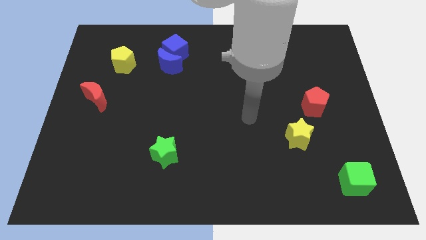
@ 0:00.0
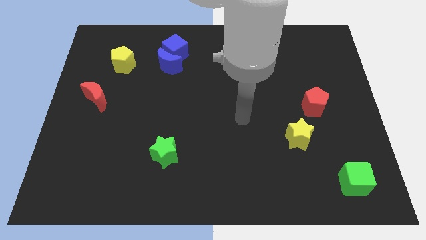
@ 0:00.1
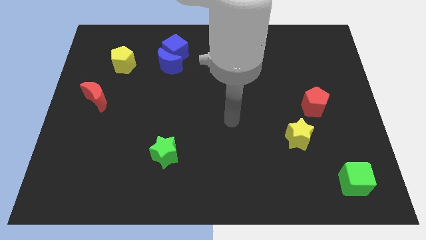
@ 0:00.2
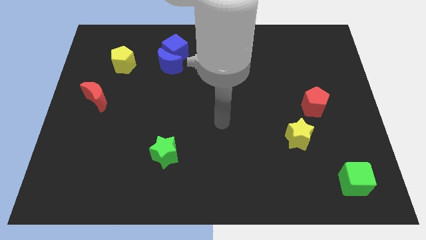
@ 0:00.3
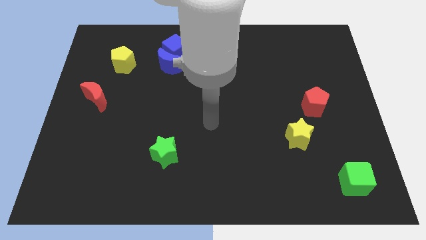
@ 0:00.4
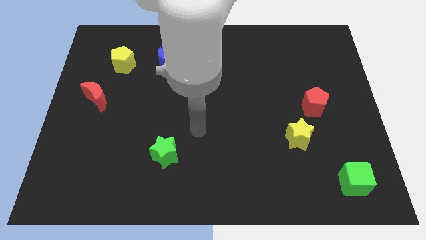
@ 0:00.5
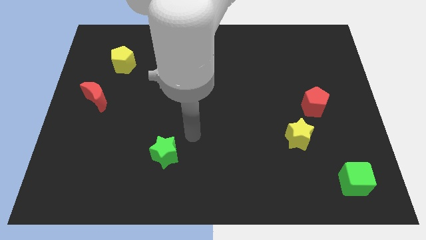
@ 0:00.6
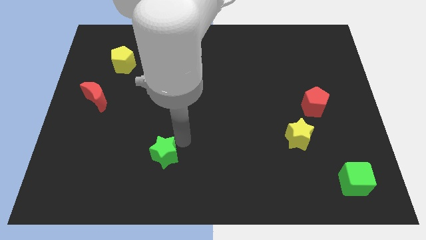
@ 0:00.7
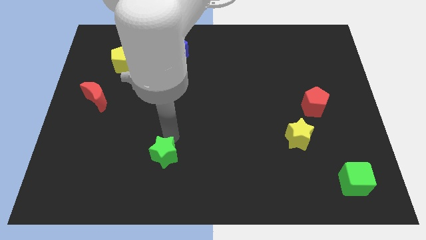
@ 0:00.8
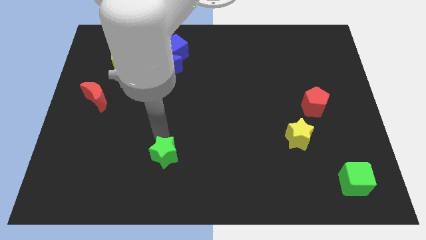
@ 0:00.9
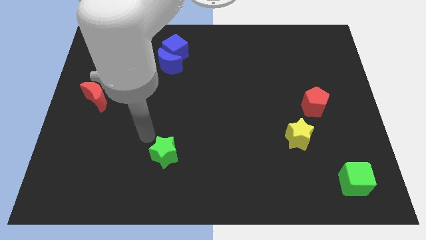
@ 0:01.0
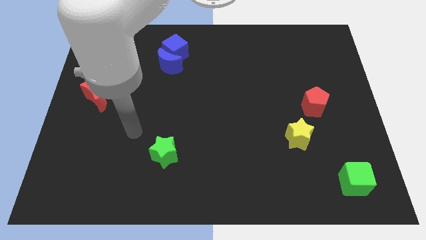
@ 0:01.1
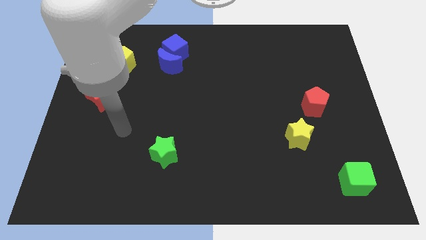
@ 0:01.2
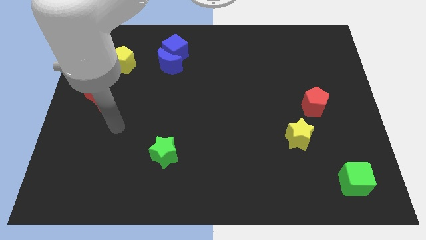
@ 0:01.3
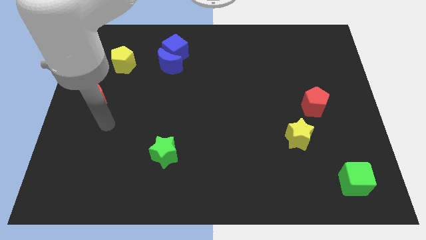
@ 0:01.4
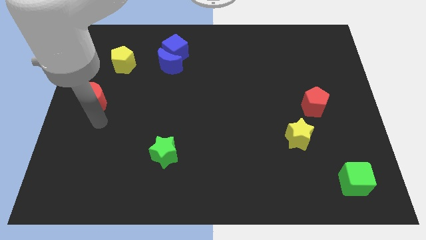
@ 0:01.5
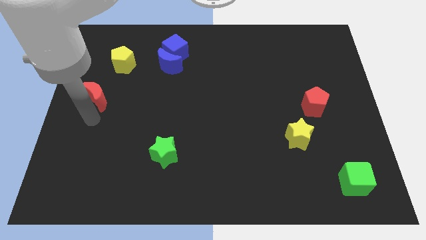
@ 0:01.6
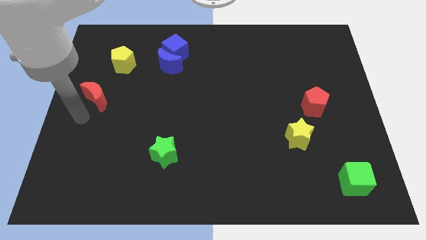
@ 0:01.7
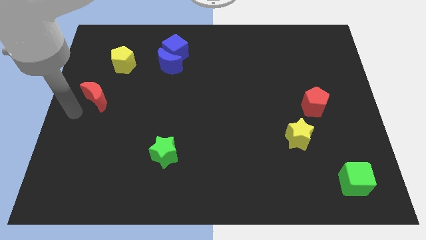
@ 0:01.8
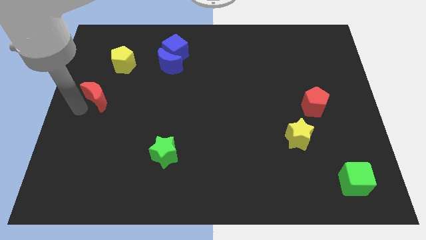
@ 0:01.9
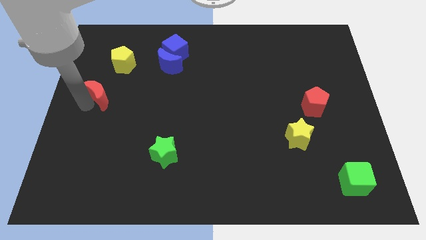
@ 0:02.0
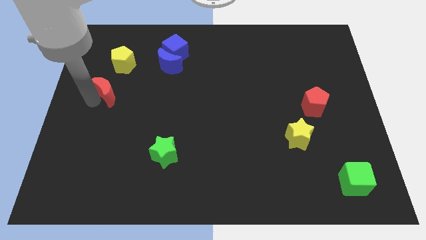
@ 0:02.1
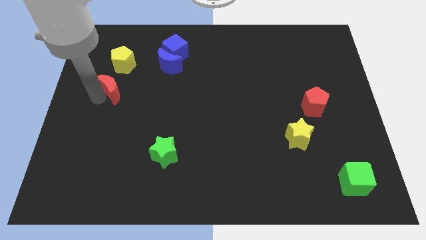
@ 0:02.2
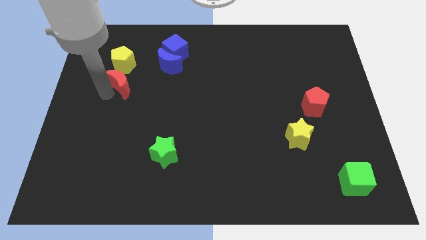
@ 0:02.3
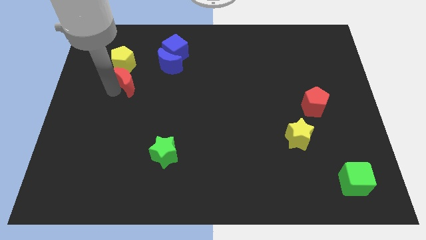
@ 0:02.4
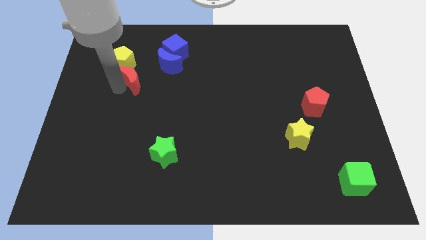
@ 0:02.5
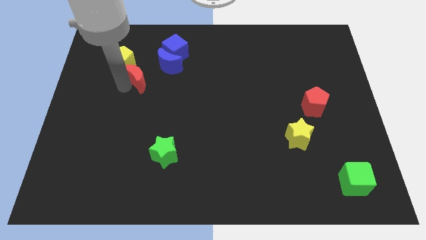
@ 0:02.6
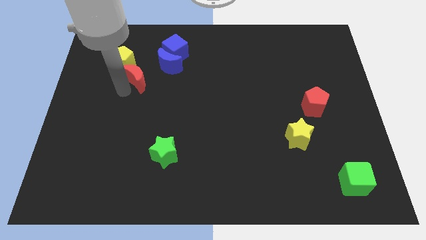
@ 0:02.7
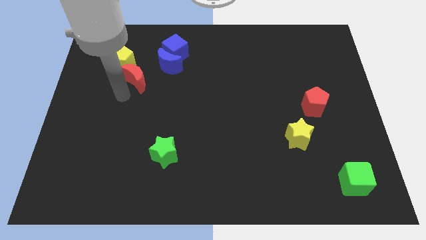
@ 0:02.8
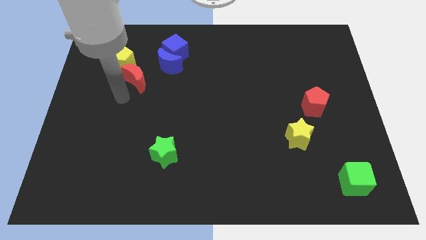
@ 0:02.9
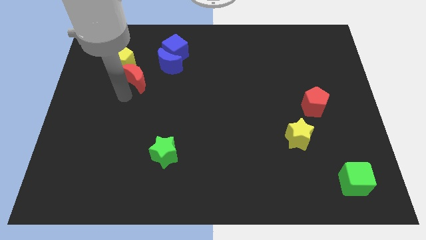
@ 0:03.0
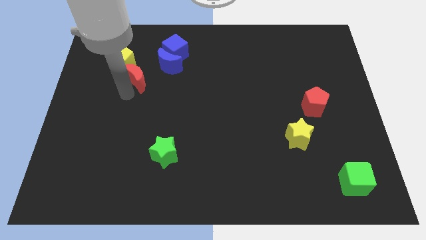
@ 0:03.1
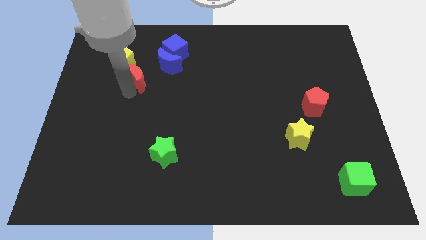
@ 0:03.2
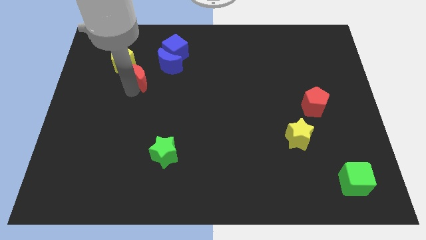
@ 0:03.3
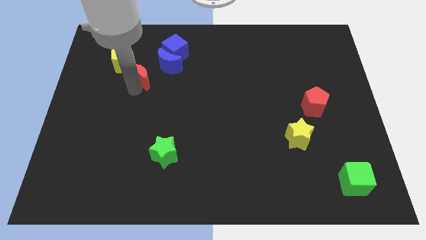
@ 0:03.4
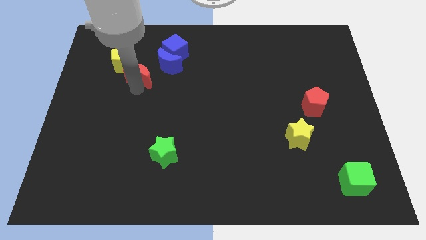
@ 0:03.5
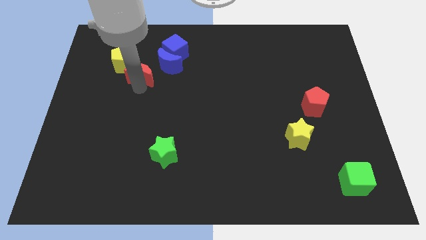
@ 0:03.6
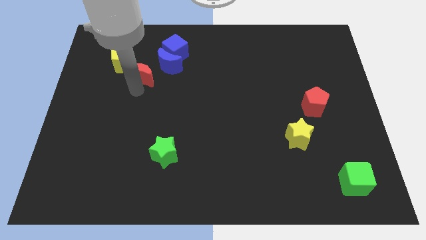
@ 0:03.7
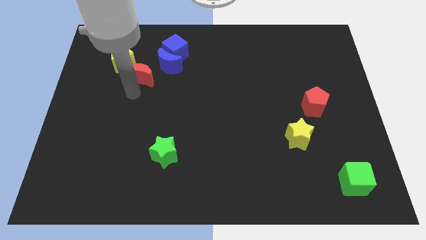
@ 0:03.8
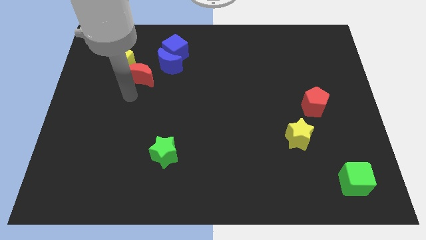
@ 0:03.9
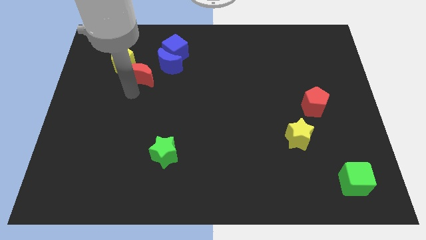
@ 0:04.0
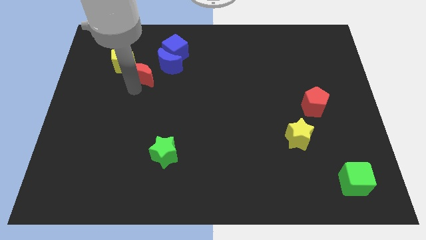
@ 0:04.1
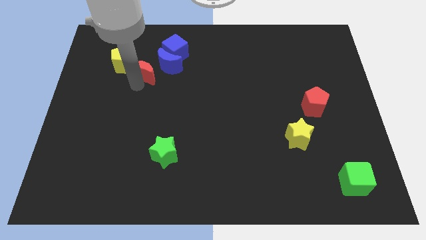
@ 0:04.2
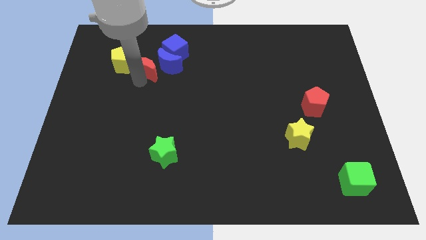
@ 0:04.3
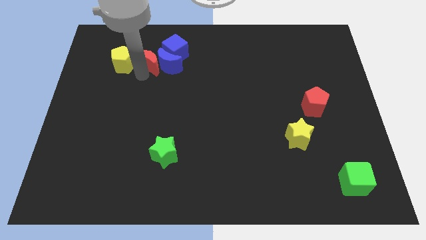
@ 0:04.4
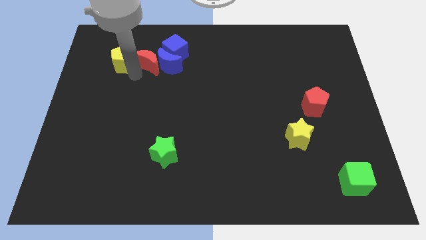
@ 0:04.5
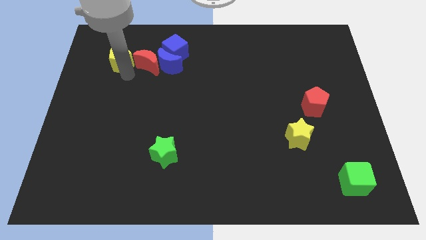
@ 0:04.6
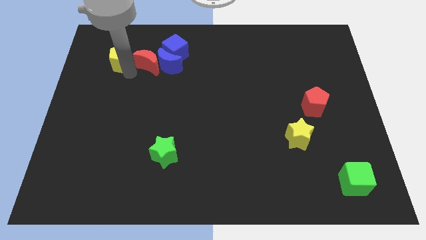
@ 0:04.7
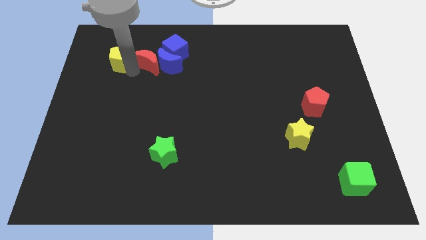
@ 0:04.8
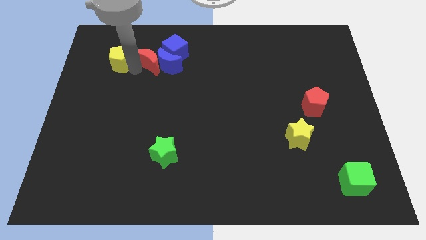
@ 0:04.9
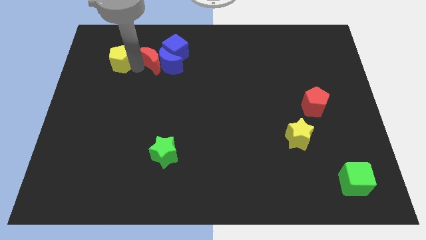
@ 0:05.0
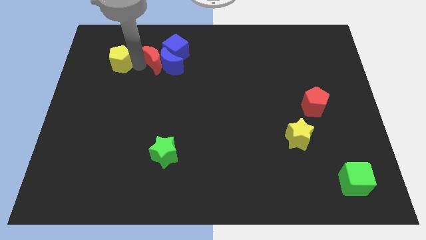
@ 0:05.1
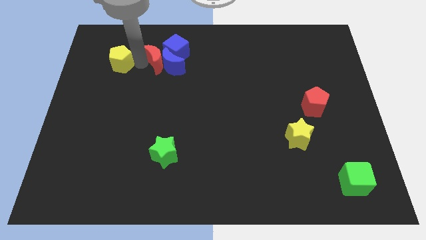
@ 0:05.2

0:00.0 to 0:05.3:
put the red moon towards the blue cube

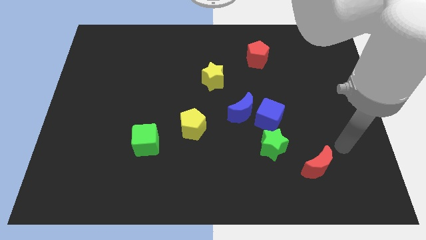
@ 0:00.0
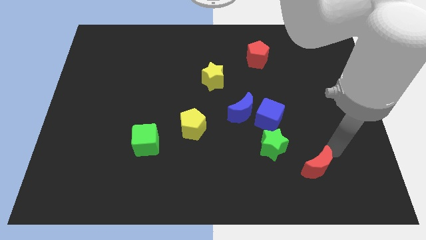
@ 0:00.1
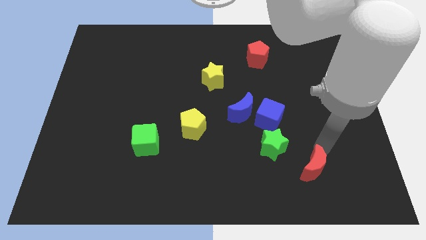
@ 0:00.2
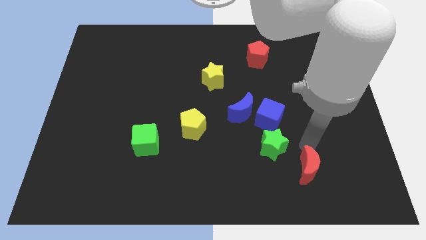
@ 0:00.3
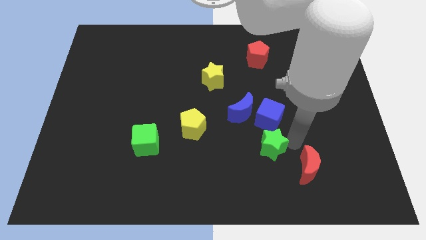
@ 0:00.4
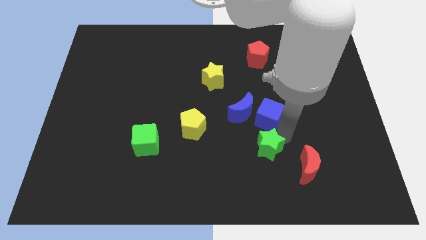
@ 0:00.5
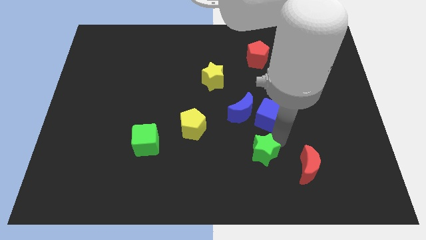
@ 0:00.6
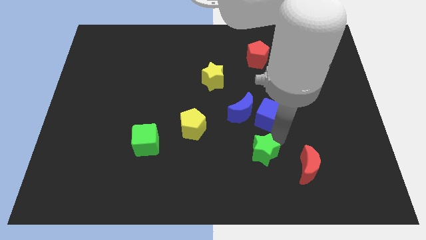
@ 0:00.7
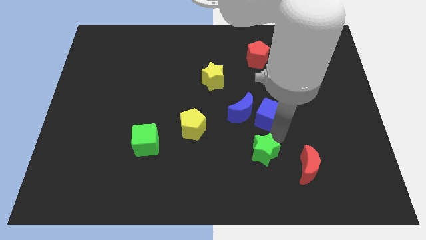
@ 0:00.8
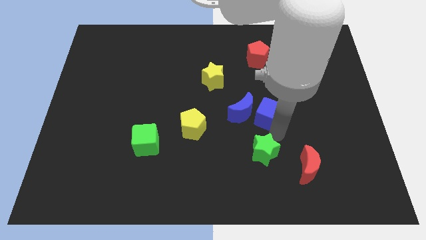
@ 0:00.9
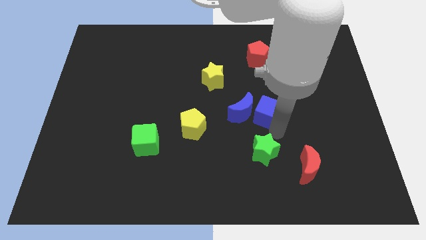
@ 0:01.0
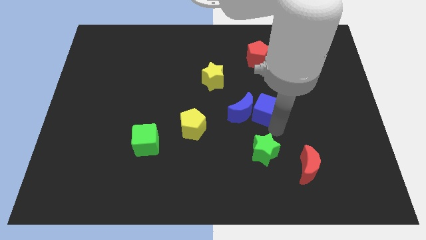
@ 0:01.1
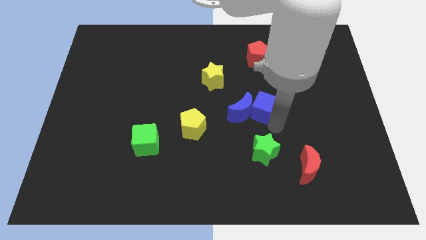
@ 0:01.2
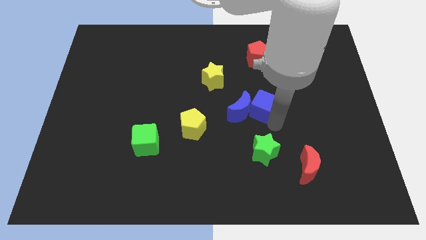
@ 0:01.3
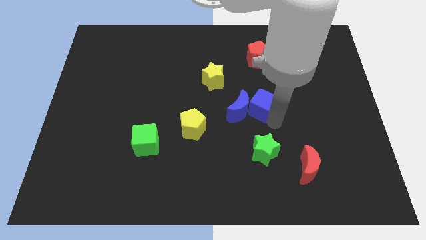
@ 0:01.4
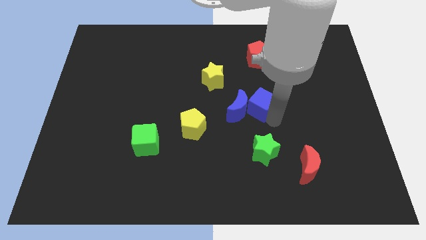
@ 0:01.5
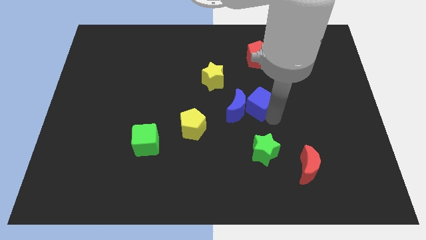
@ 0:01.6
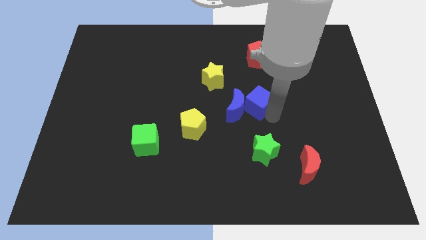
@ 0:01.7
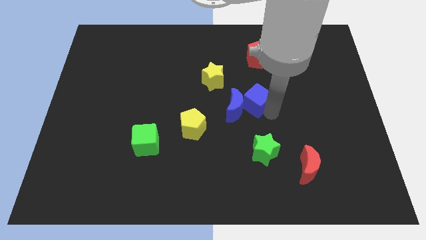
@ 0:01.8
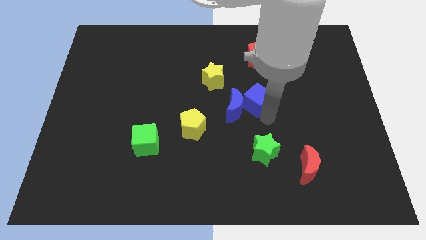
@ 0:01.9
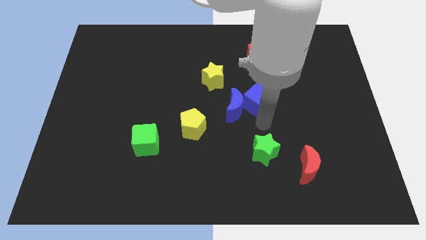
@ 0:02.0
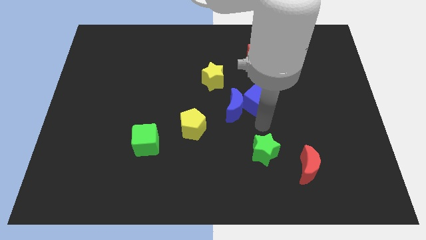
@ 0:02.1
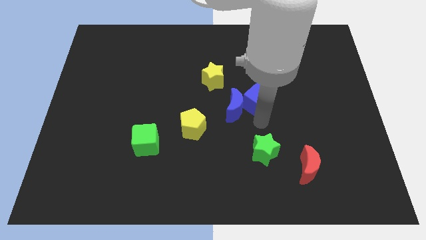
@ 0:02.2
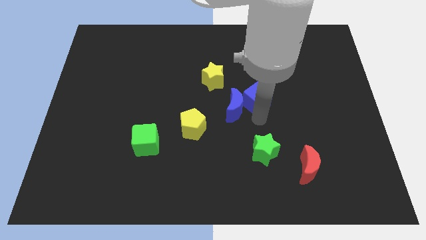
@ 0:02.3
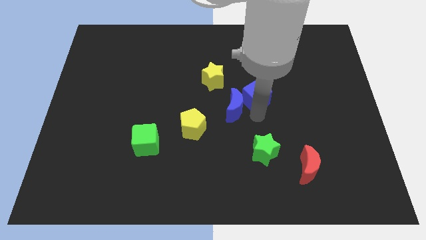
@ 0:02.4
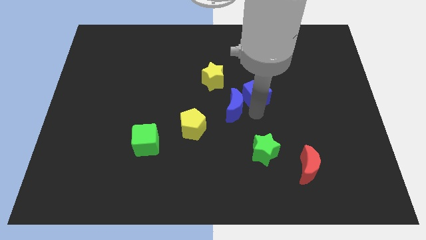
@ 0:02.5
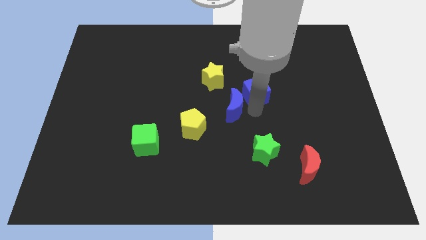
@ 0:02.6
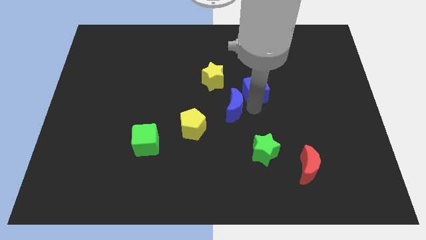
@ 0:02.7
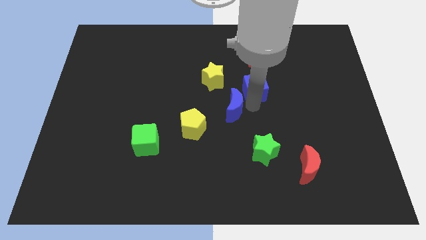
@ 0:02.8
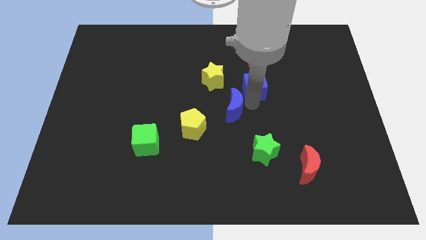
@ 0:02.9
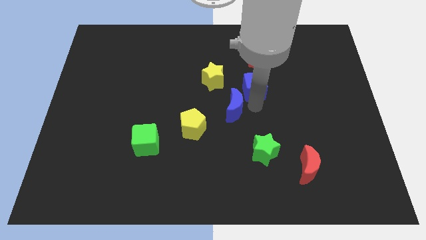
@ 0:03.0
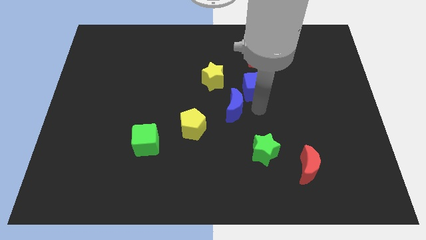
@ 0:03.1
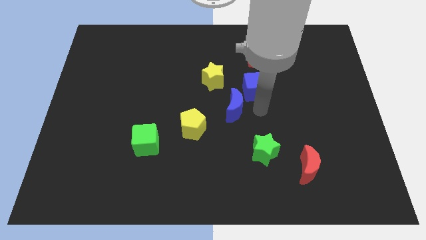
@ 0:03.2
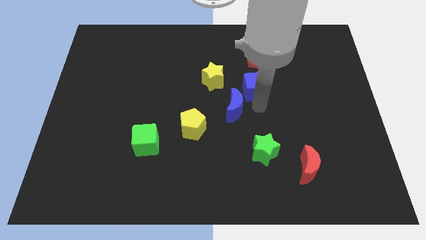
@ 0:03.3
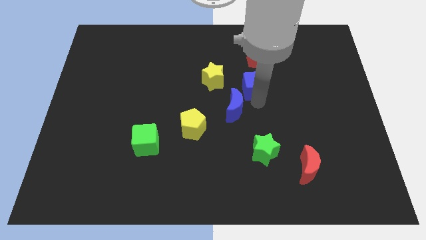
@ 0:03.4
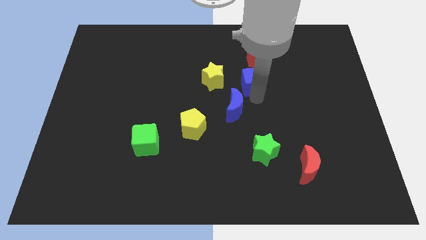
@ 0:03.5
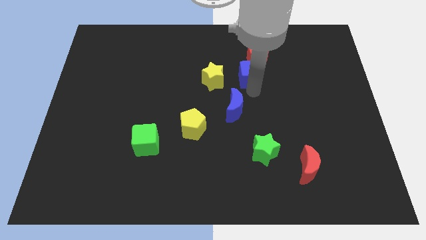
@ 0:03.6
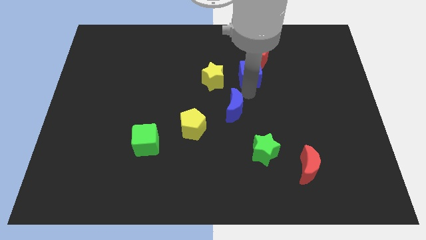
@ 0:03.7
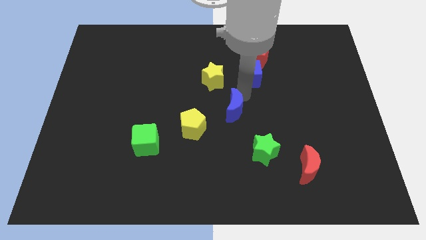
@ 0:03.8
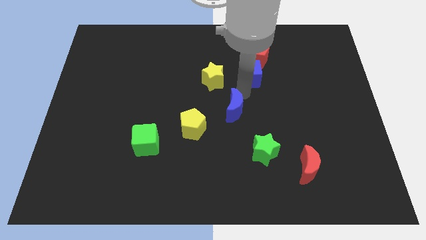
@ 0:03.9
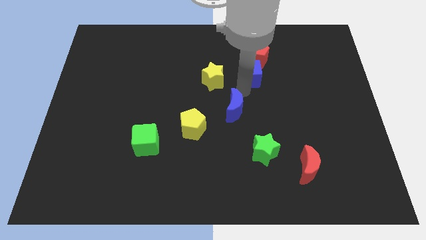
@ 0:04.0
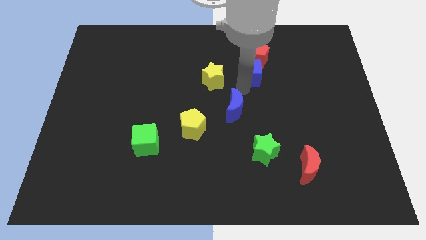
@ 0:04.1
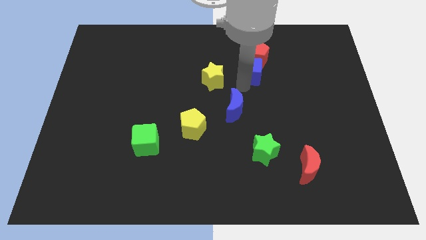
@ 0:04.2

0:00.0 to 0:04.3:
move the blue cube next to the red pentagon
